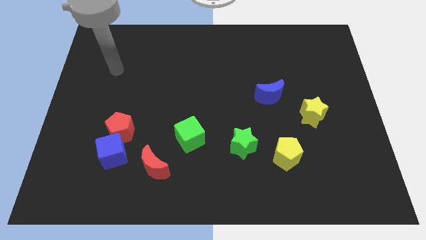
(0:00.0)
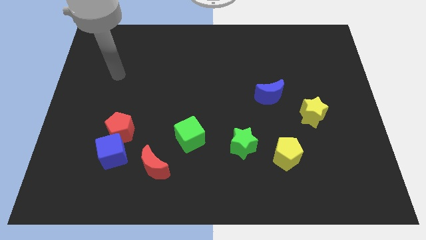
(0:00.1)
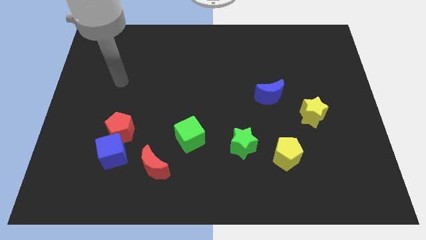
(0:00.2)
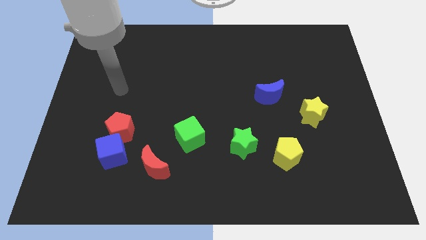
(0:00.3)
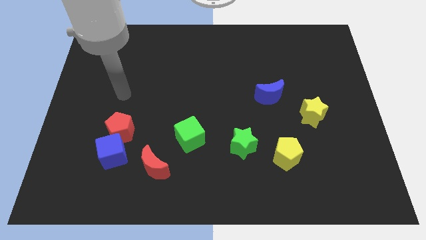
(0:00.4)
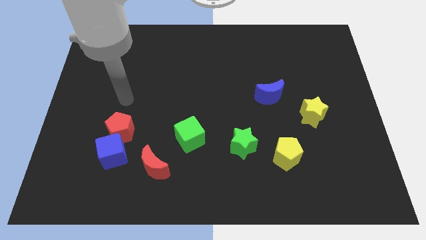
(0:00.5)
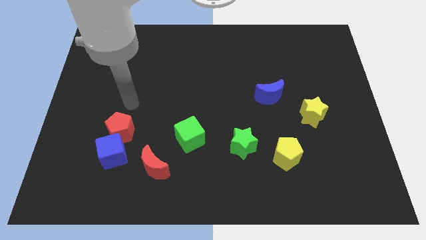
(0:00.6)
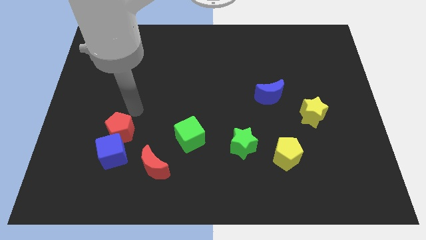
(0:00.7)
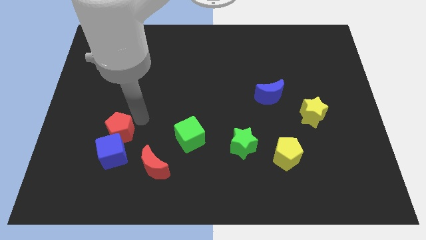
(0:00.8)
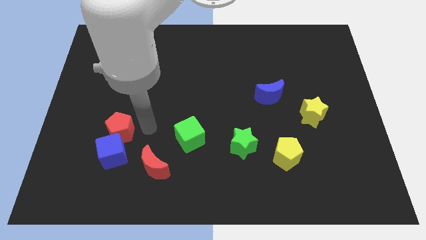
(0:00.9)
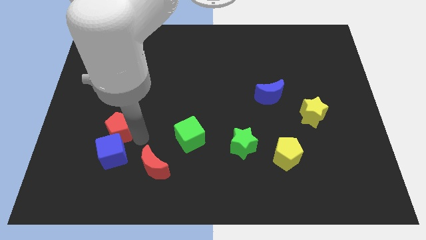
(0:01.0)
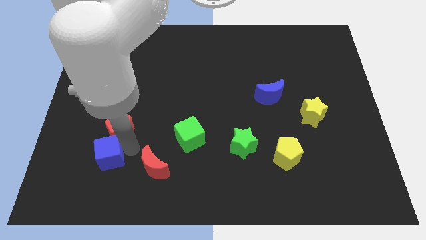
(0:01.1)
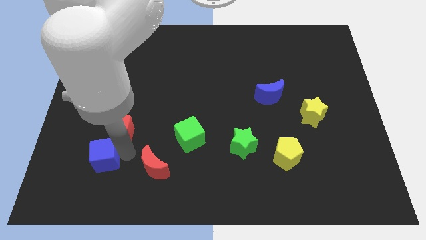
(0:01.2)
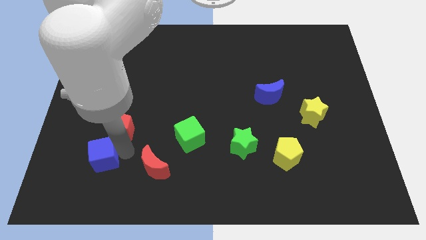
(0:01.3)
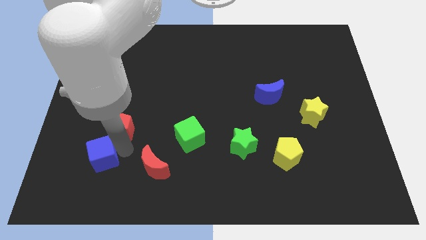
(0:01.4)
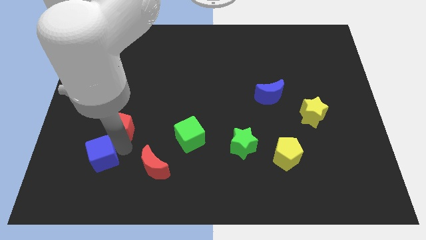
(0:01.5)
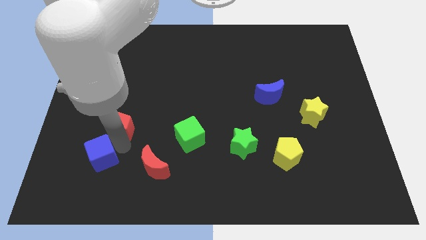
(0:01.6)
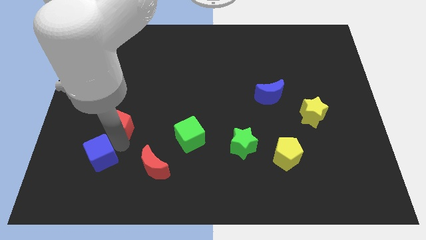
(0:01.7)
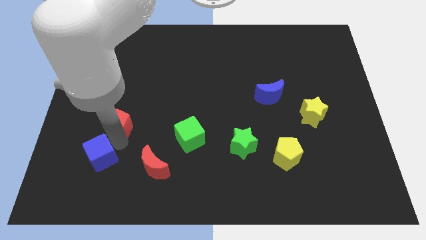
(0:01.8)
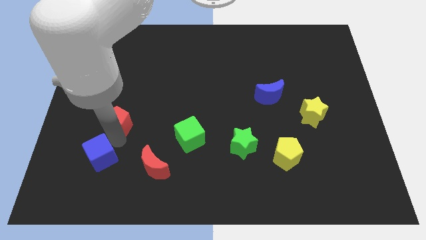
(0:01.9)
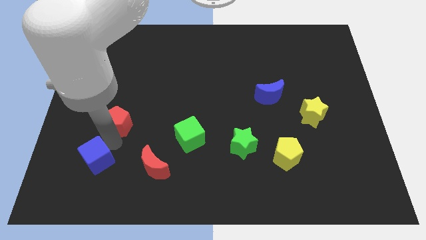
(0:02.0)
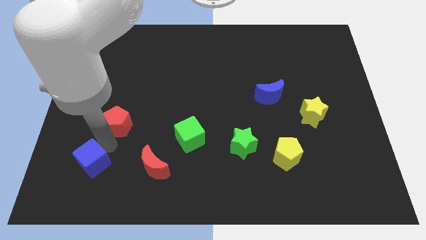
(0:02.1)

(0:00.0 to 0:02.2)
move the red pentagon away from the blue cube

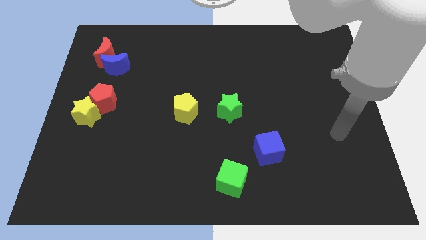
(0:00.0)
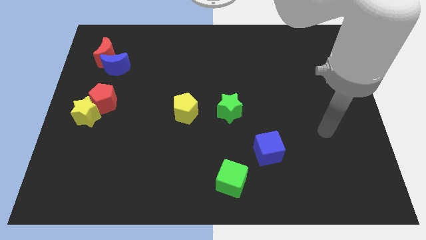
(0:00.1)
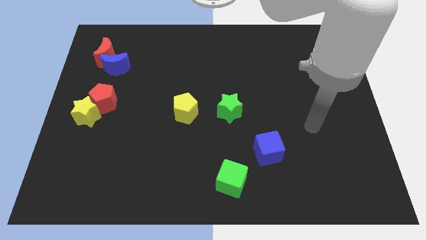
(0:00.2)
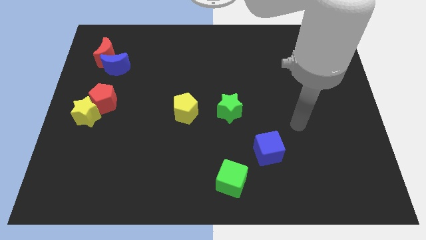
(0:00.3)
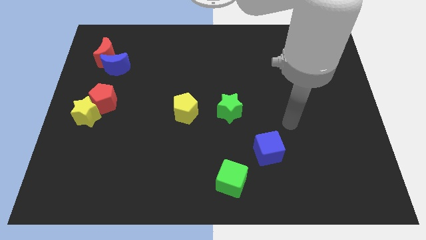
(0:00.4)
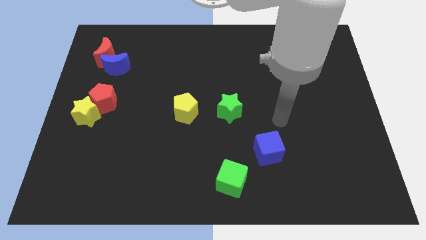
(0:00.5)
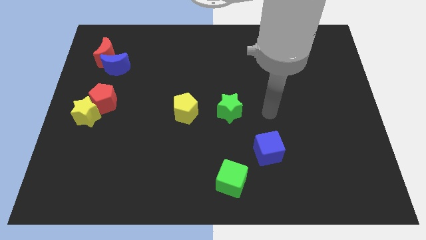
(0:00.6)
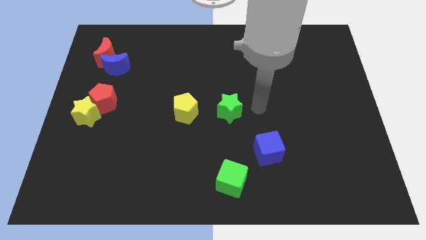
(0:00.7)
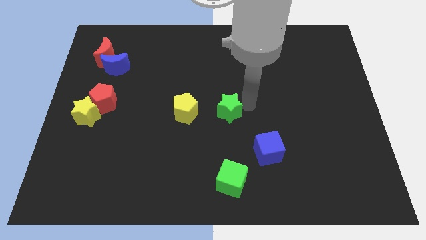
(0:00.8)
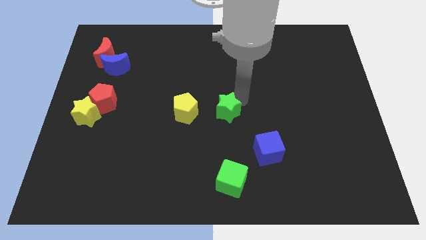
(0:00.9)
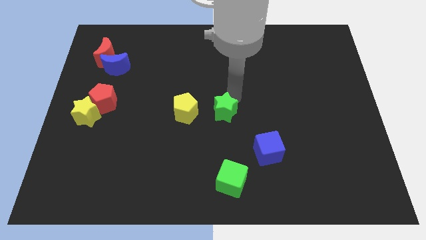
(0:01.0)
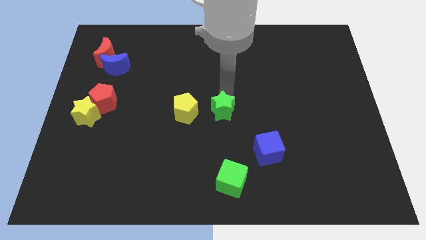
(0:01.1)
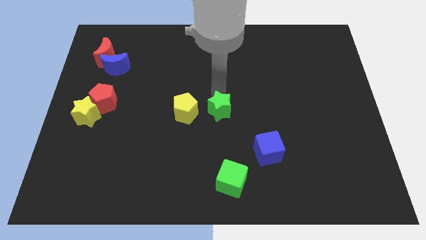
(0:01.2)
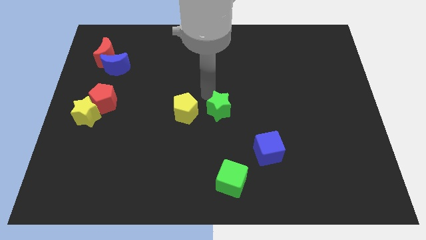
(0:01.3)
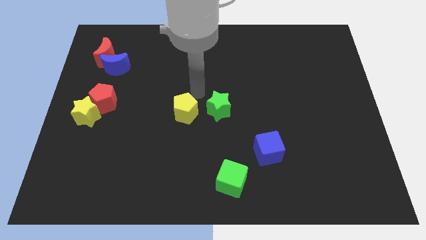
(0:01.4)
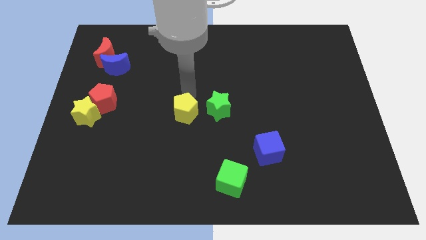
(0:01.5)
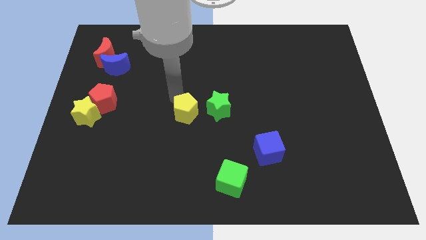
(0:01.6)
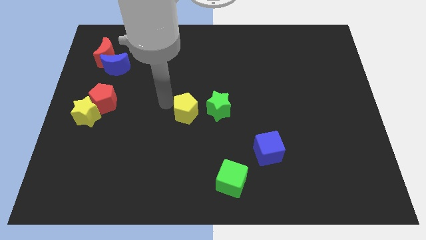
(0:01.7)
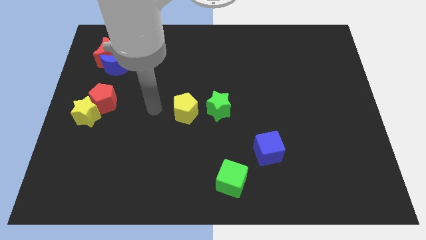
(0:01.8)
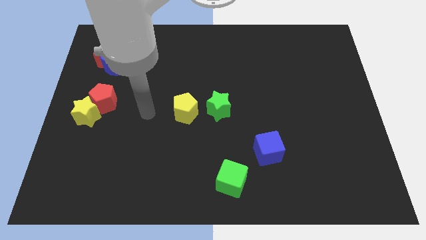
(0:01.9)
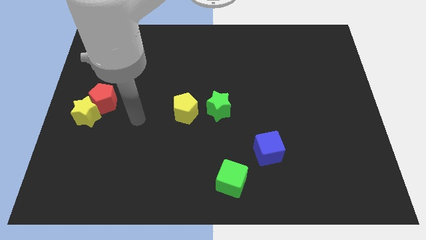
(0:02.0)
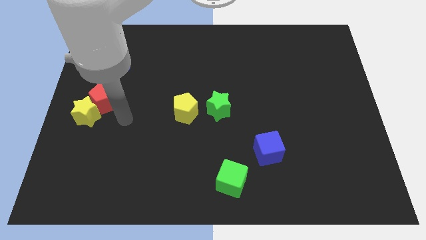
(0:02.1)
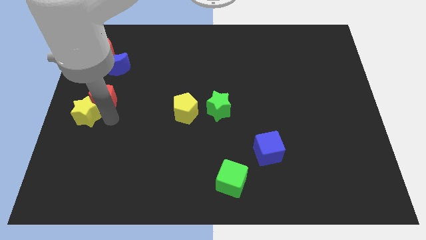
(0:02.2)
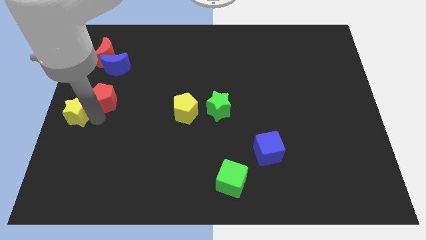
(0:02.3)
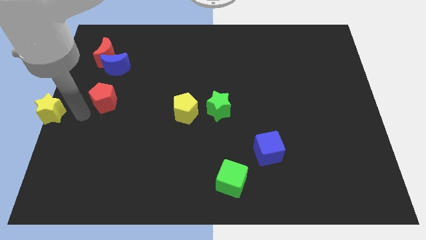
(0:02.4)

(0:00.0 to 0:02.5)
pull the red pentagon apart from the yellow star

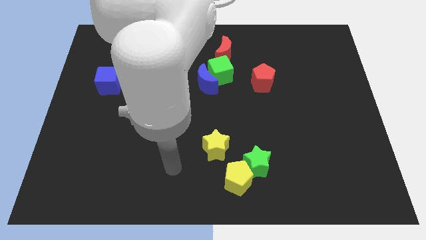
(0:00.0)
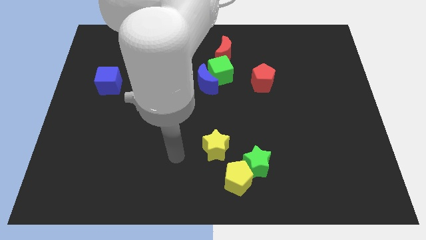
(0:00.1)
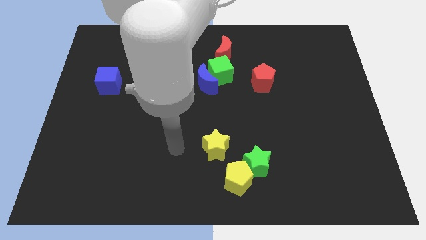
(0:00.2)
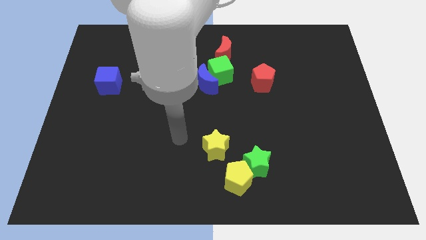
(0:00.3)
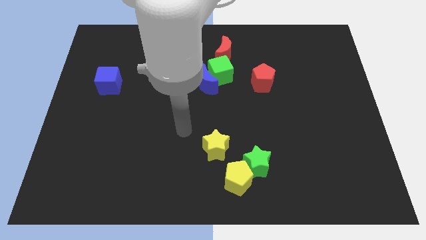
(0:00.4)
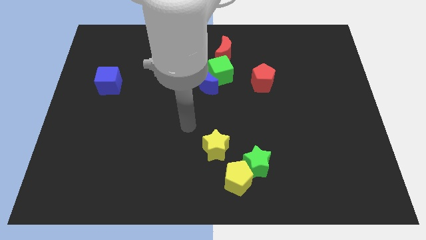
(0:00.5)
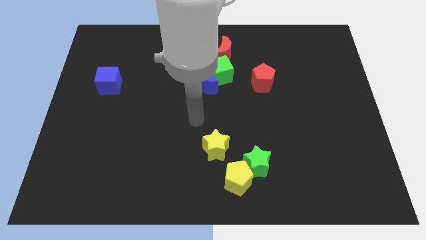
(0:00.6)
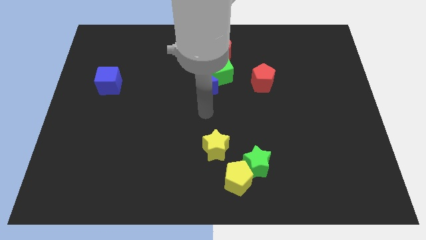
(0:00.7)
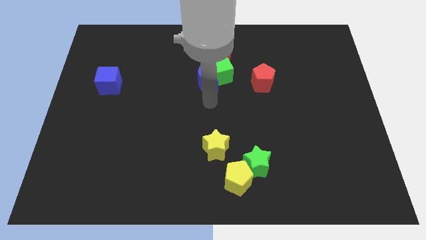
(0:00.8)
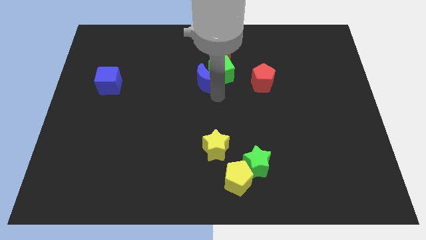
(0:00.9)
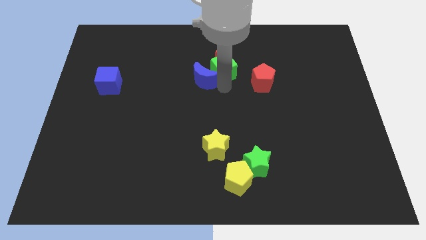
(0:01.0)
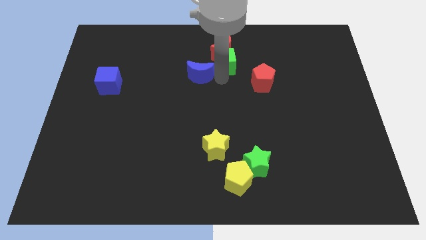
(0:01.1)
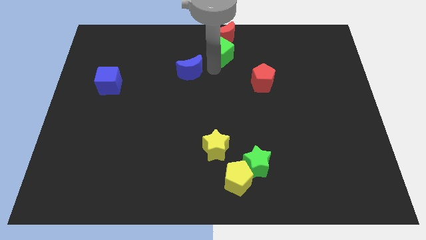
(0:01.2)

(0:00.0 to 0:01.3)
pull the blue moon apart from the green cube

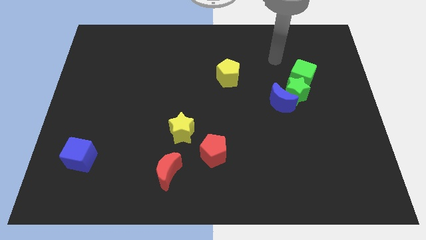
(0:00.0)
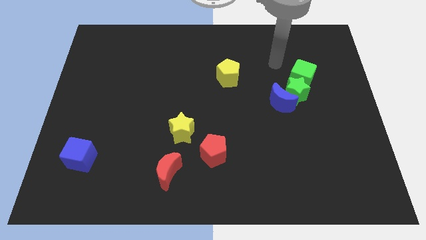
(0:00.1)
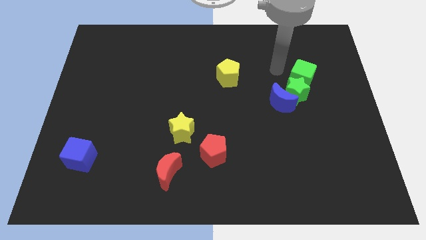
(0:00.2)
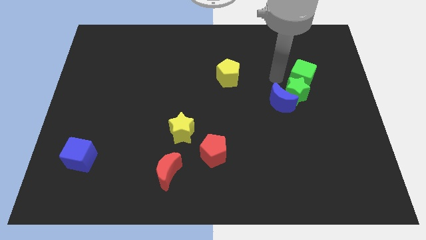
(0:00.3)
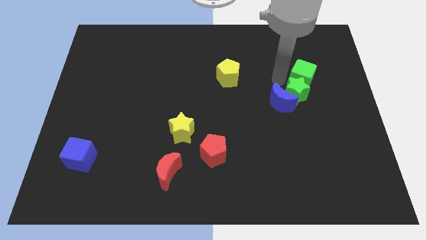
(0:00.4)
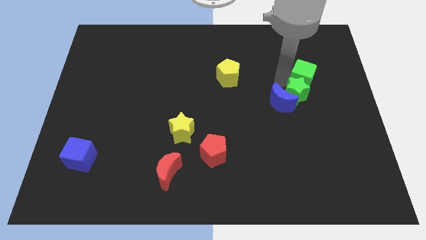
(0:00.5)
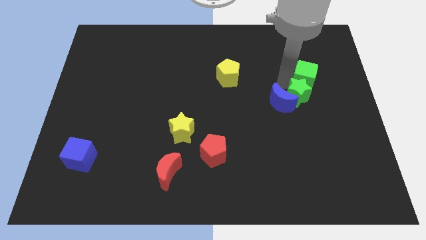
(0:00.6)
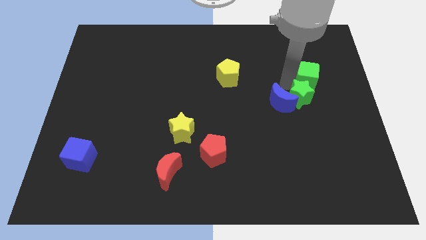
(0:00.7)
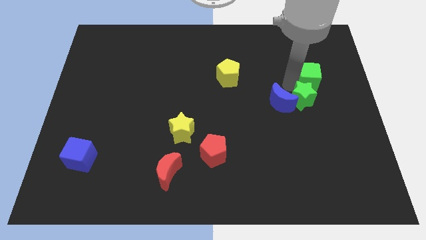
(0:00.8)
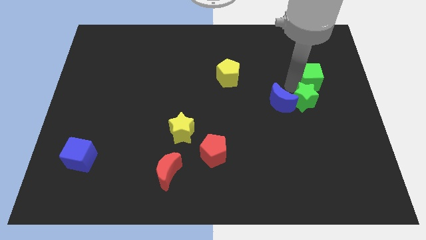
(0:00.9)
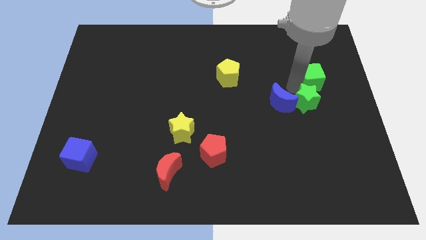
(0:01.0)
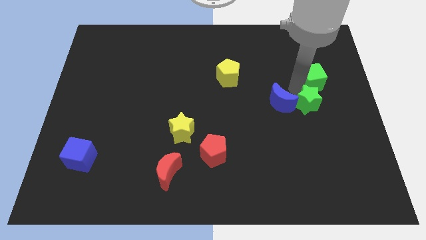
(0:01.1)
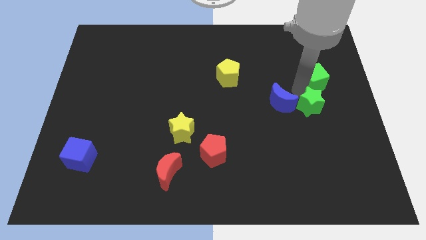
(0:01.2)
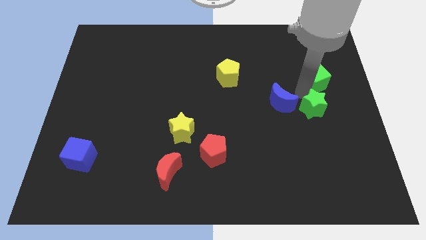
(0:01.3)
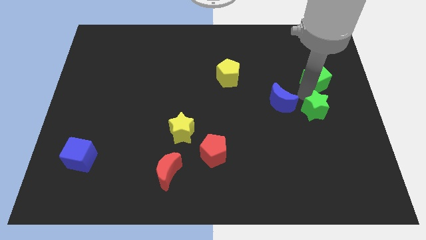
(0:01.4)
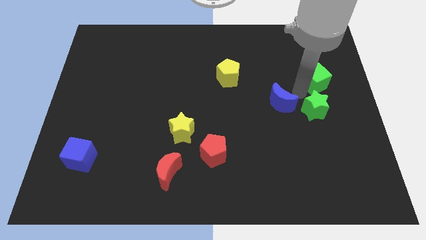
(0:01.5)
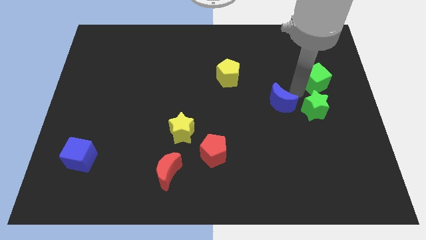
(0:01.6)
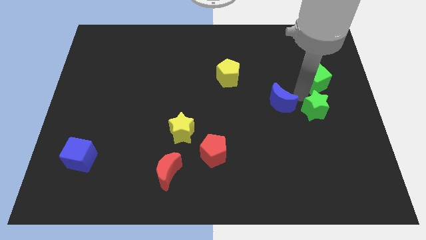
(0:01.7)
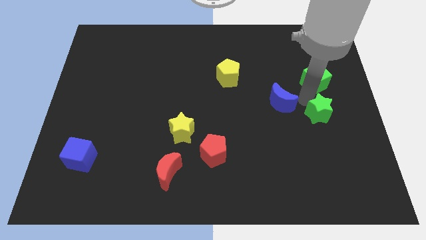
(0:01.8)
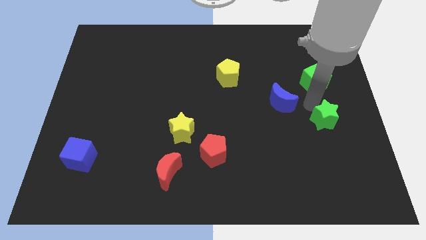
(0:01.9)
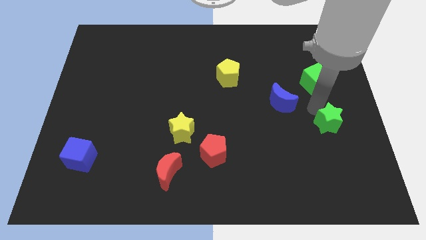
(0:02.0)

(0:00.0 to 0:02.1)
separate the green star from the blue moon and green cube

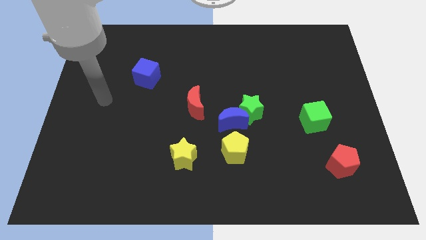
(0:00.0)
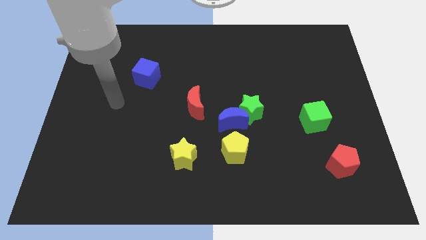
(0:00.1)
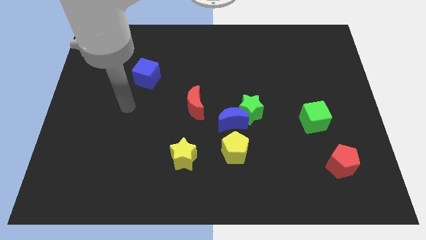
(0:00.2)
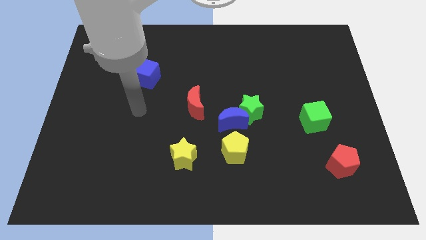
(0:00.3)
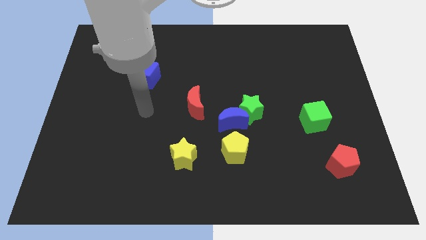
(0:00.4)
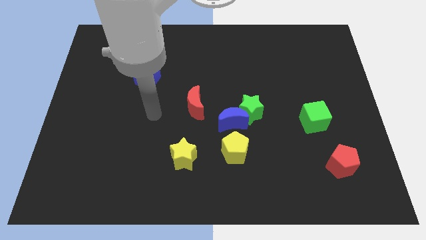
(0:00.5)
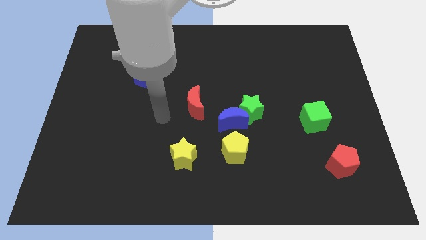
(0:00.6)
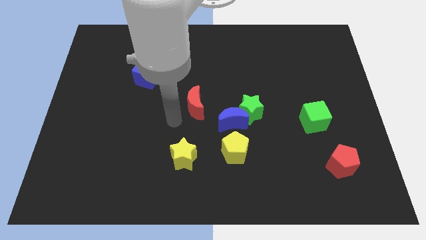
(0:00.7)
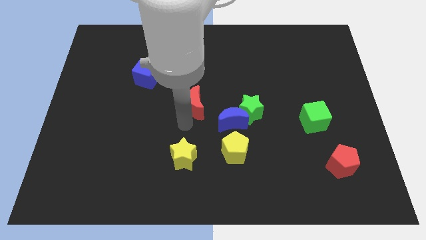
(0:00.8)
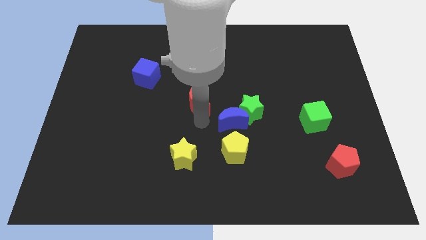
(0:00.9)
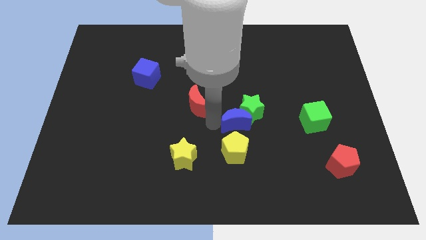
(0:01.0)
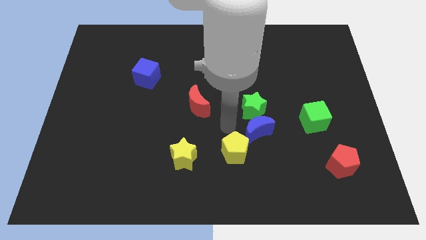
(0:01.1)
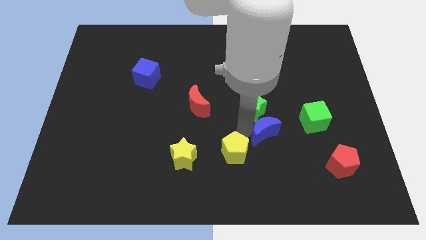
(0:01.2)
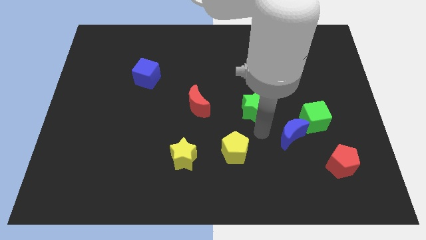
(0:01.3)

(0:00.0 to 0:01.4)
pull the green star apart from the blue moon
